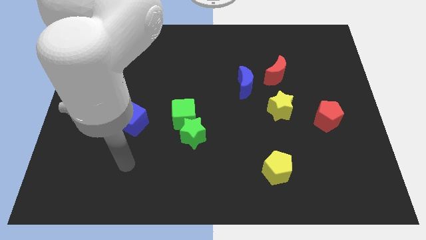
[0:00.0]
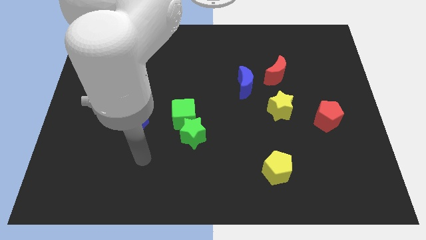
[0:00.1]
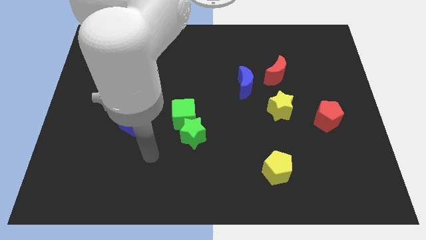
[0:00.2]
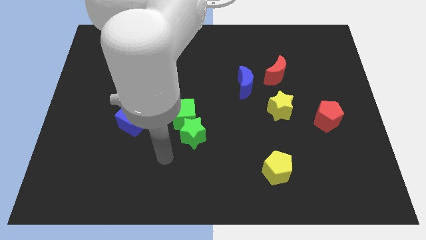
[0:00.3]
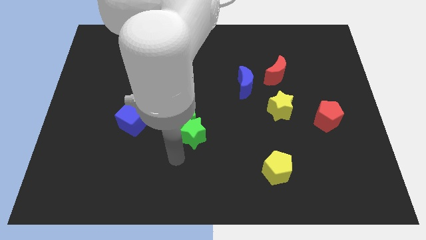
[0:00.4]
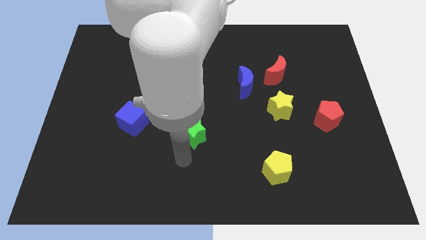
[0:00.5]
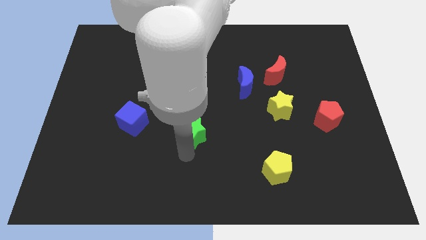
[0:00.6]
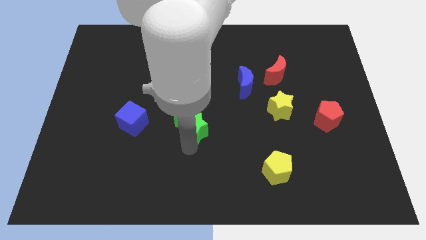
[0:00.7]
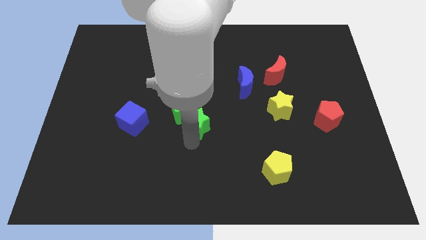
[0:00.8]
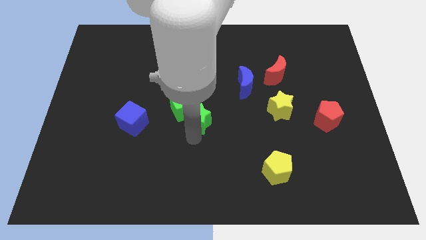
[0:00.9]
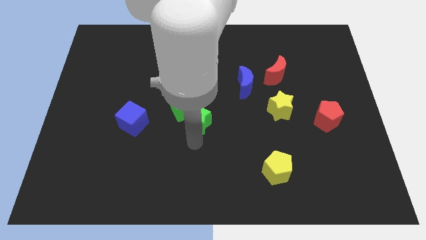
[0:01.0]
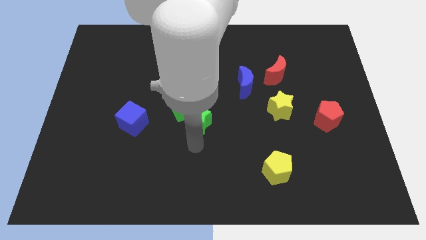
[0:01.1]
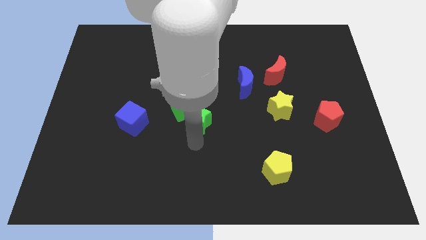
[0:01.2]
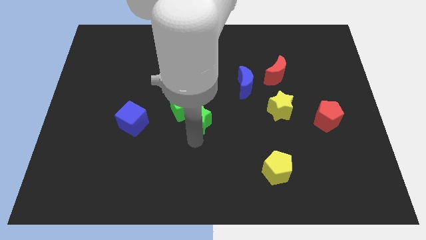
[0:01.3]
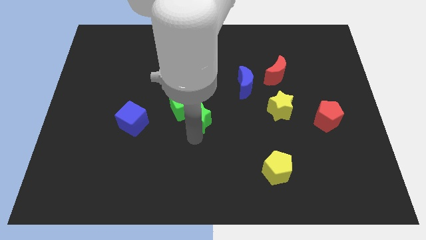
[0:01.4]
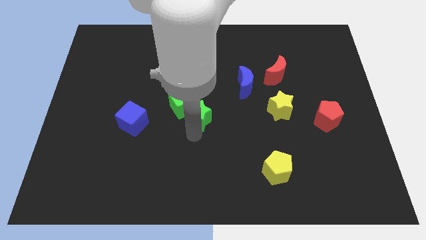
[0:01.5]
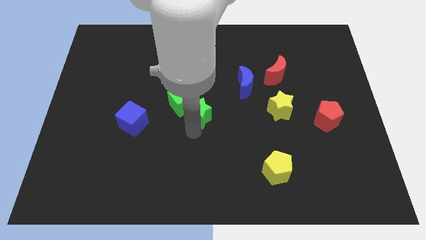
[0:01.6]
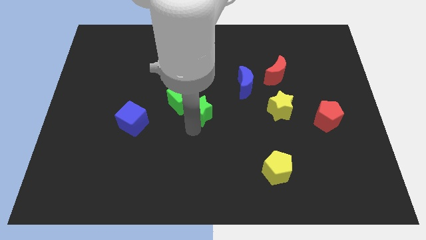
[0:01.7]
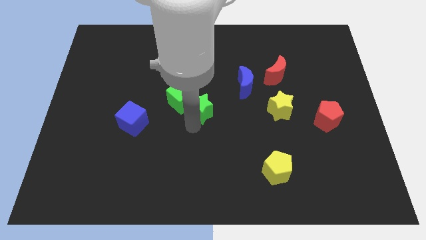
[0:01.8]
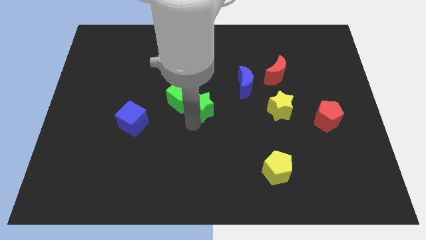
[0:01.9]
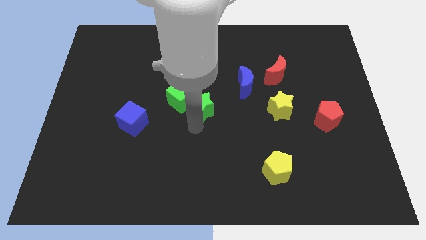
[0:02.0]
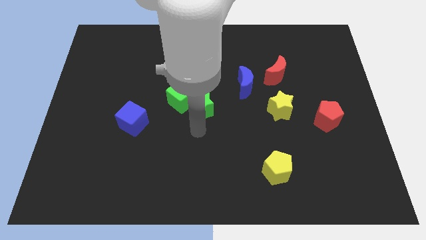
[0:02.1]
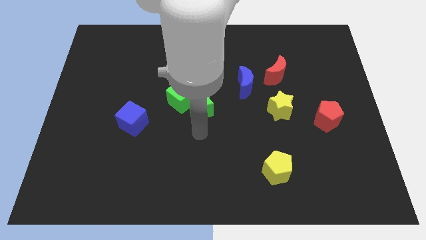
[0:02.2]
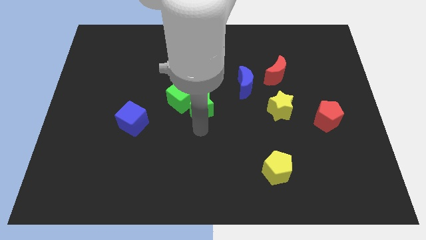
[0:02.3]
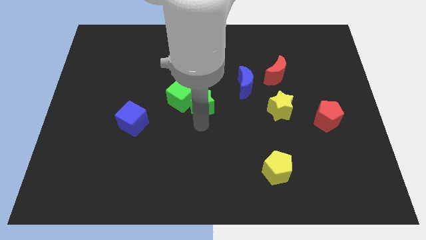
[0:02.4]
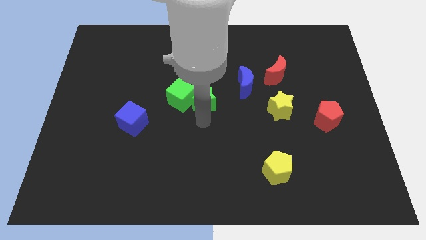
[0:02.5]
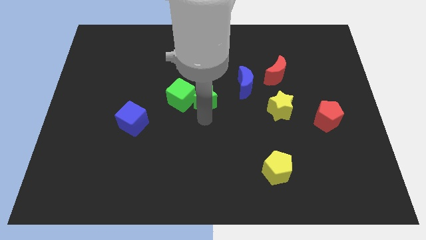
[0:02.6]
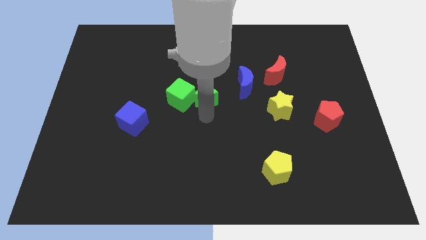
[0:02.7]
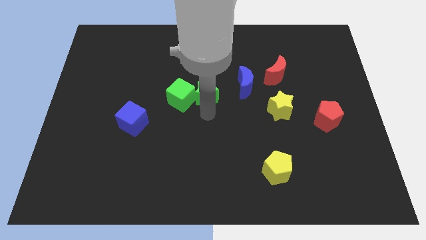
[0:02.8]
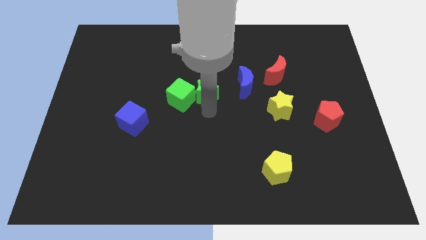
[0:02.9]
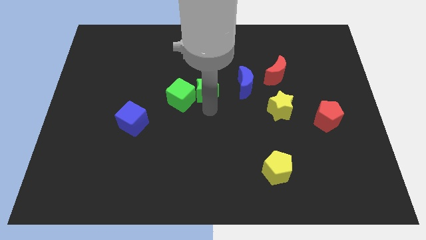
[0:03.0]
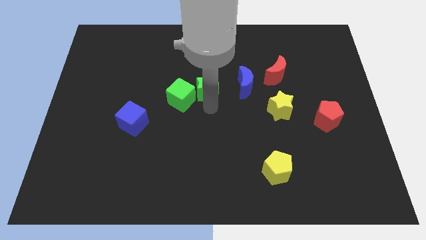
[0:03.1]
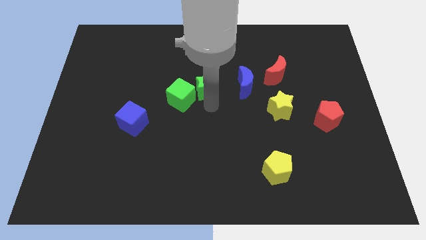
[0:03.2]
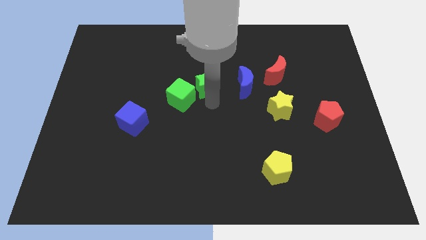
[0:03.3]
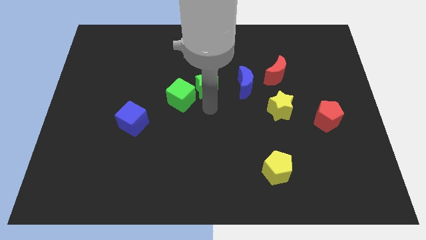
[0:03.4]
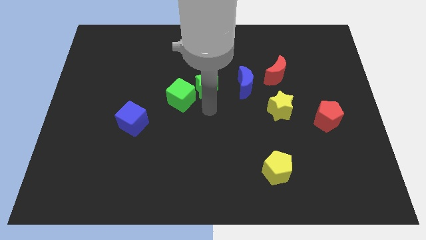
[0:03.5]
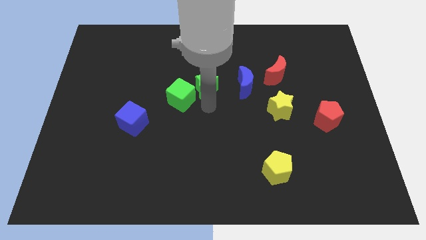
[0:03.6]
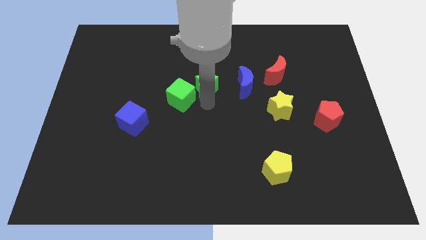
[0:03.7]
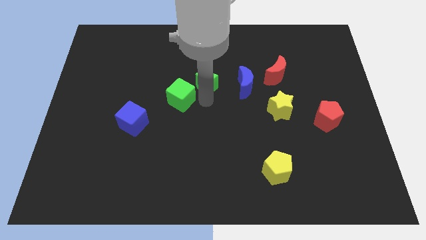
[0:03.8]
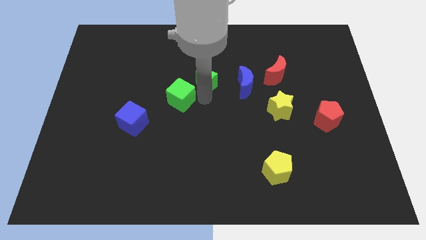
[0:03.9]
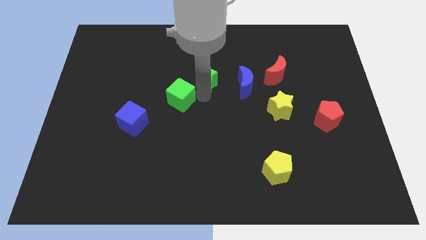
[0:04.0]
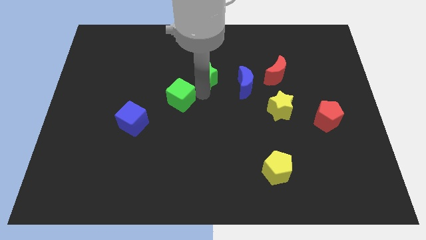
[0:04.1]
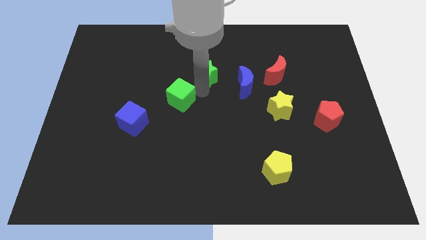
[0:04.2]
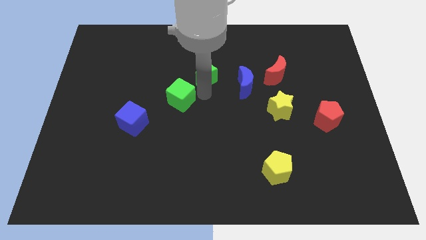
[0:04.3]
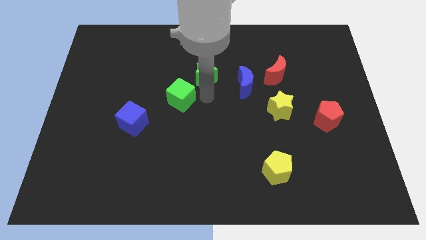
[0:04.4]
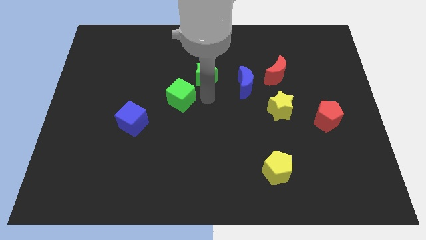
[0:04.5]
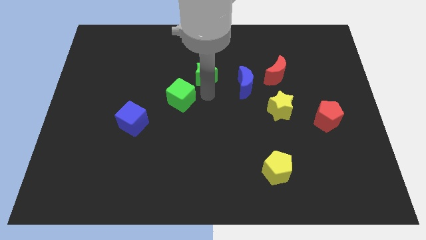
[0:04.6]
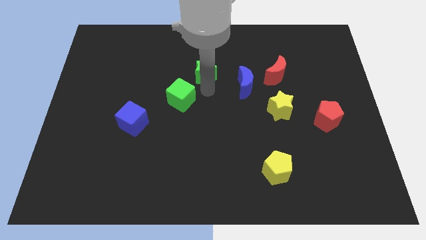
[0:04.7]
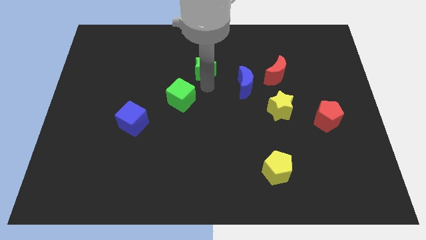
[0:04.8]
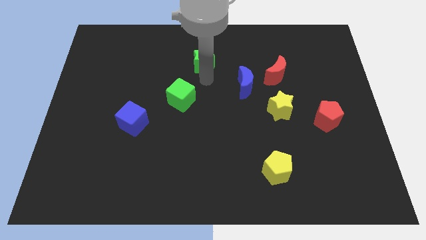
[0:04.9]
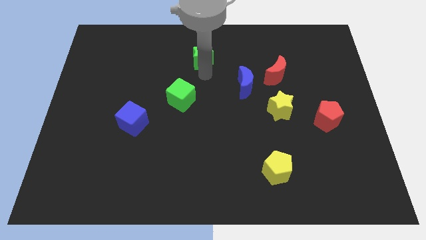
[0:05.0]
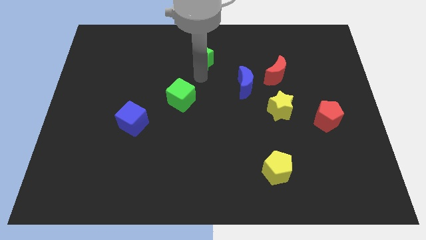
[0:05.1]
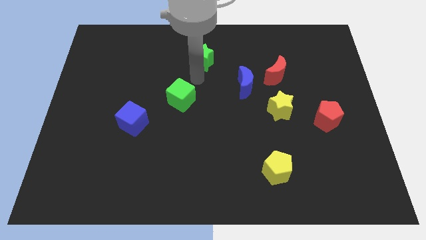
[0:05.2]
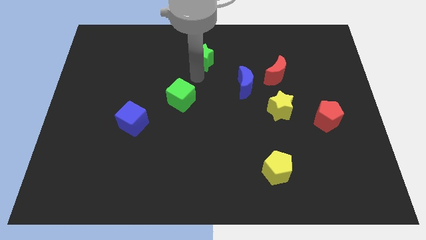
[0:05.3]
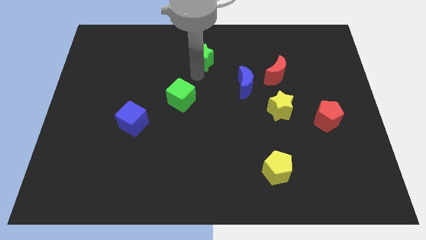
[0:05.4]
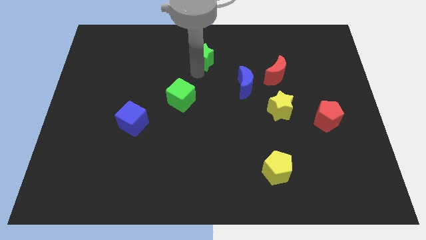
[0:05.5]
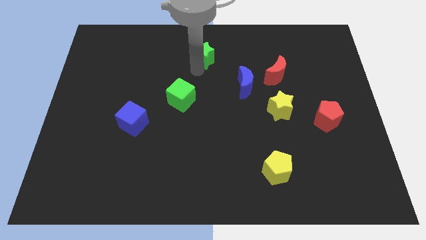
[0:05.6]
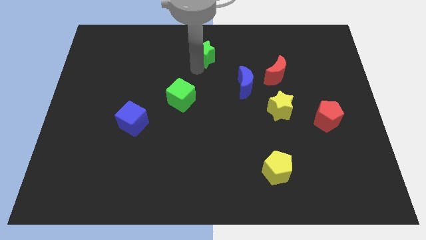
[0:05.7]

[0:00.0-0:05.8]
slide the green star to the top side

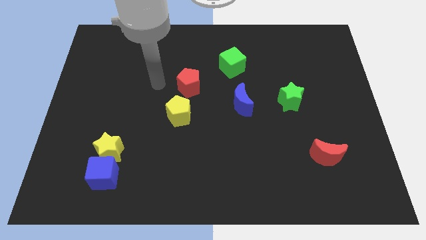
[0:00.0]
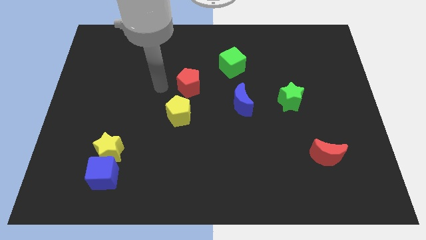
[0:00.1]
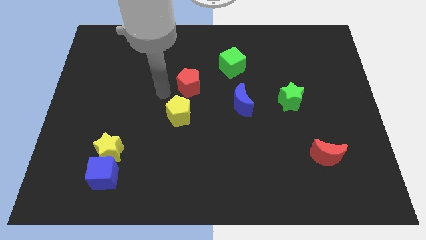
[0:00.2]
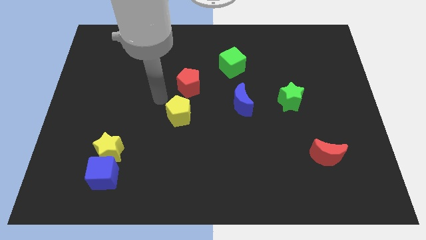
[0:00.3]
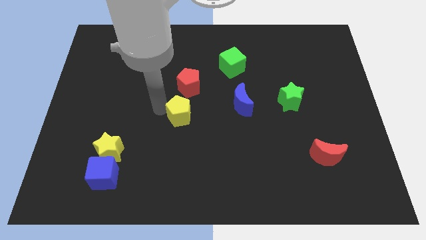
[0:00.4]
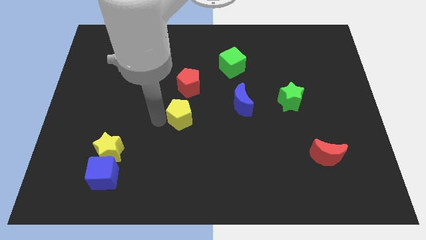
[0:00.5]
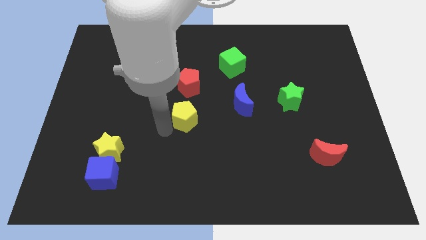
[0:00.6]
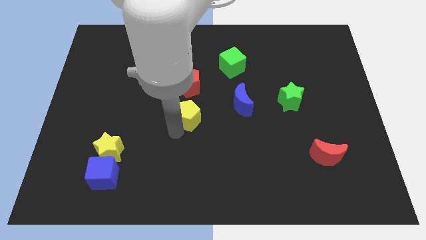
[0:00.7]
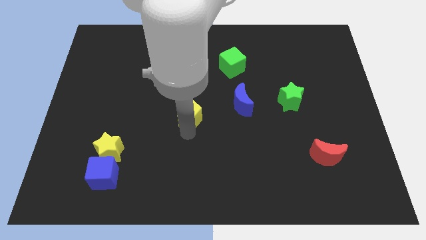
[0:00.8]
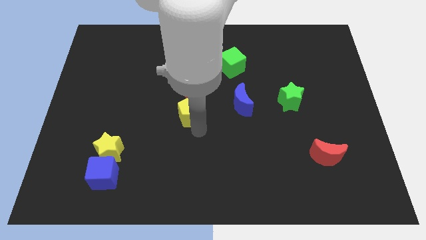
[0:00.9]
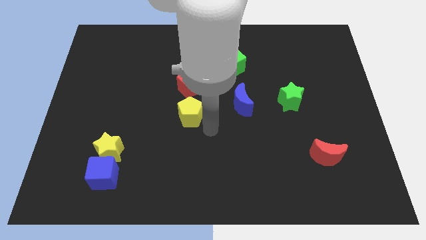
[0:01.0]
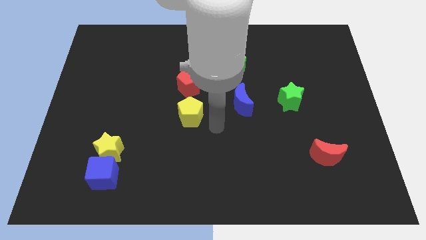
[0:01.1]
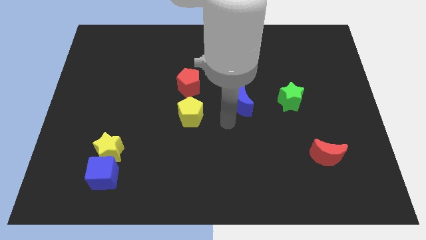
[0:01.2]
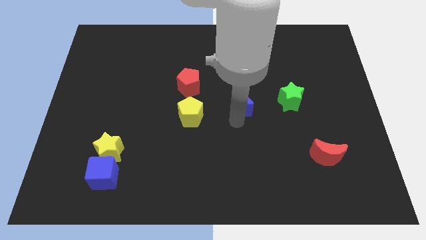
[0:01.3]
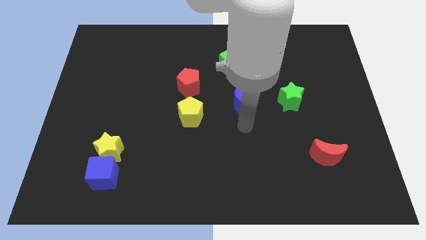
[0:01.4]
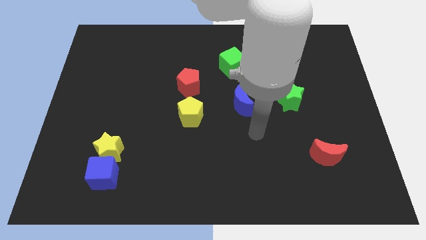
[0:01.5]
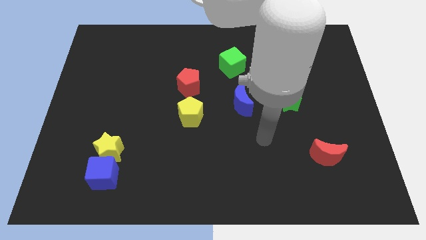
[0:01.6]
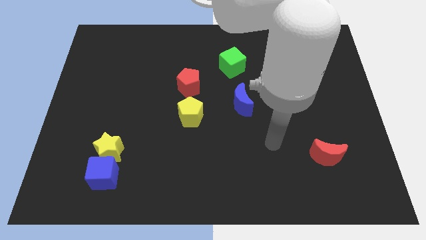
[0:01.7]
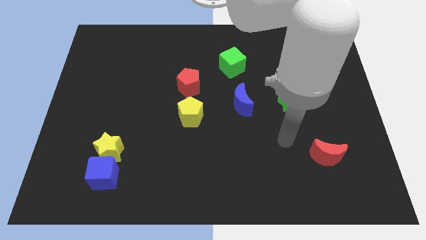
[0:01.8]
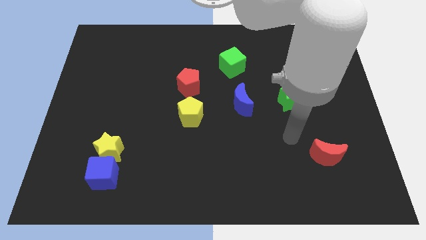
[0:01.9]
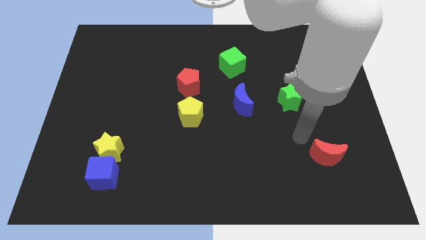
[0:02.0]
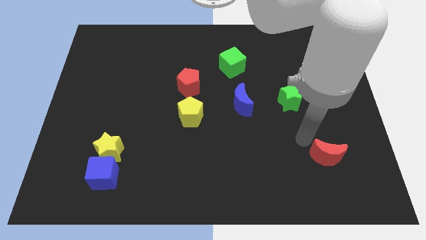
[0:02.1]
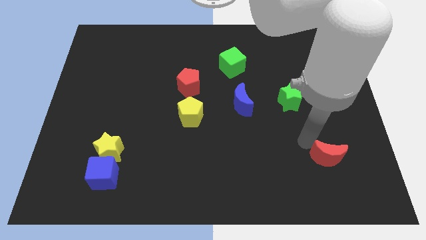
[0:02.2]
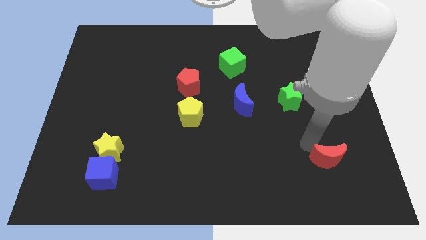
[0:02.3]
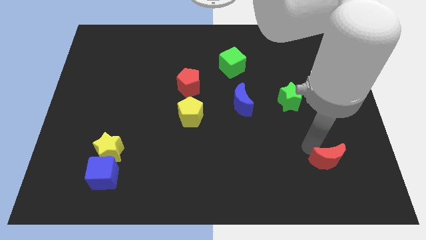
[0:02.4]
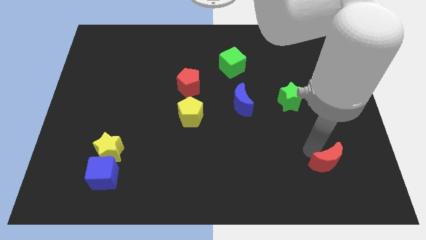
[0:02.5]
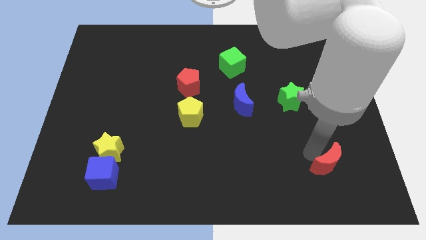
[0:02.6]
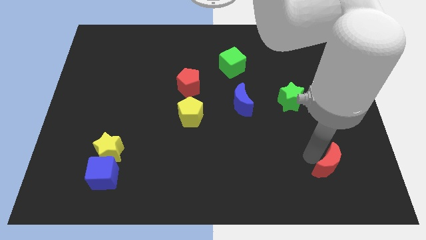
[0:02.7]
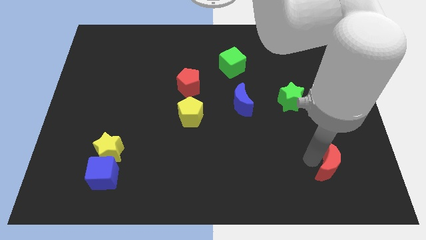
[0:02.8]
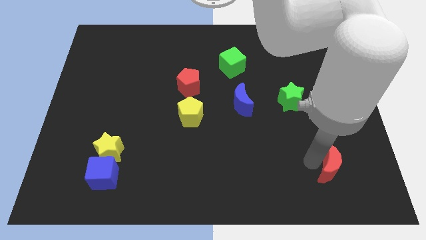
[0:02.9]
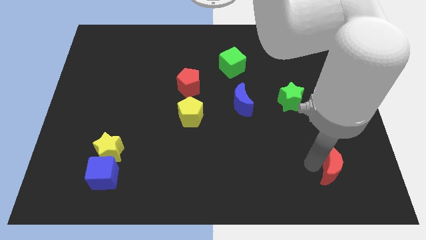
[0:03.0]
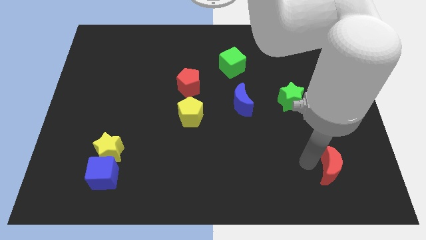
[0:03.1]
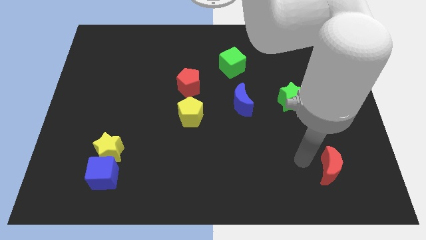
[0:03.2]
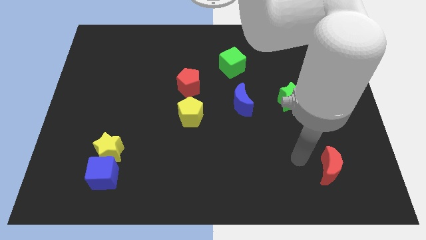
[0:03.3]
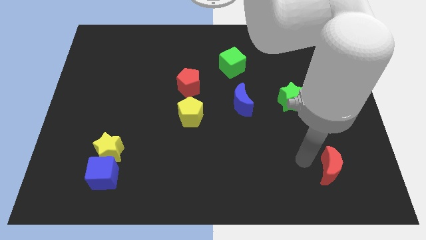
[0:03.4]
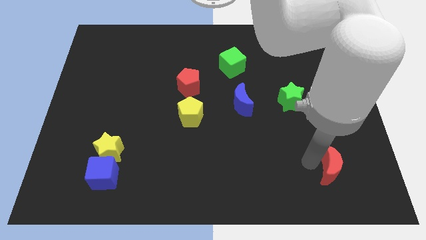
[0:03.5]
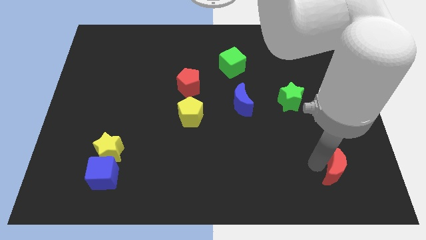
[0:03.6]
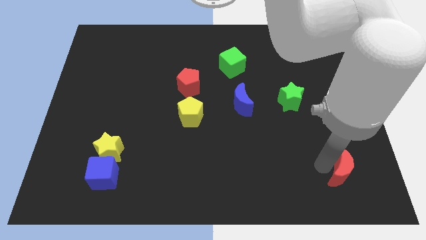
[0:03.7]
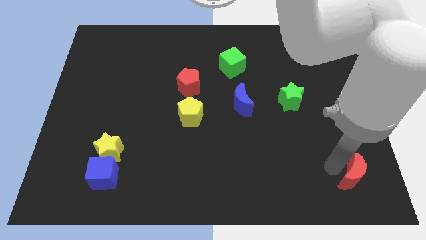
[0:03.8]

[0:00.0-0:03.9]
put the red moon to the bottom right
